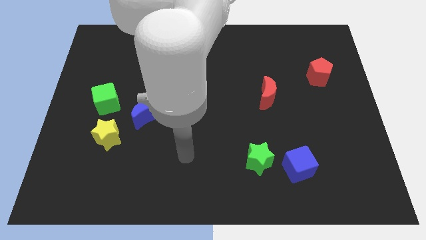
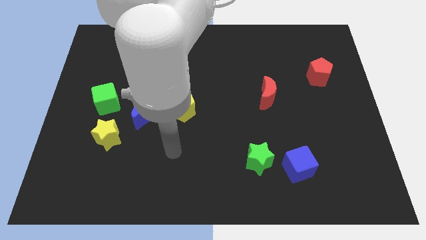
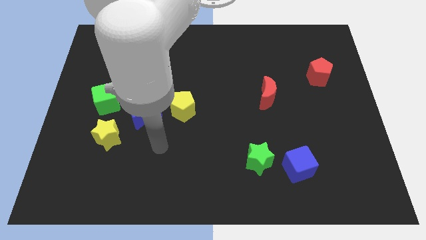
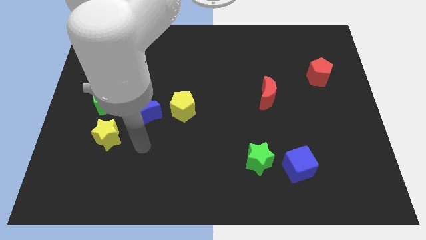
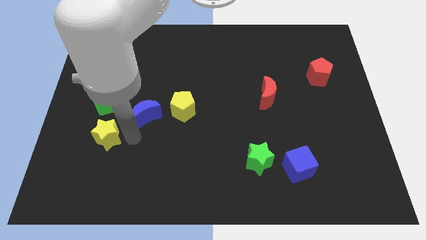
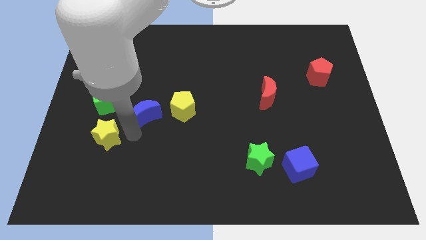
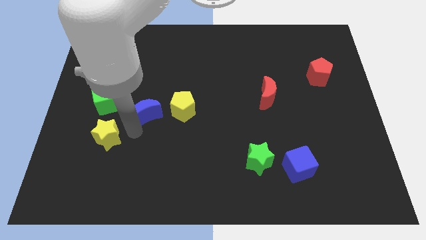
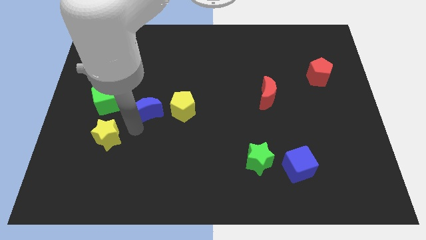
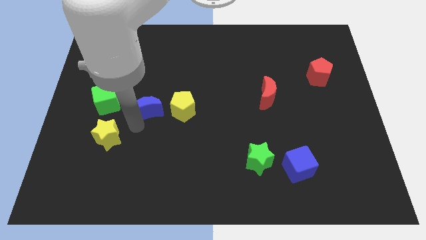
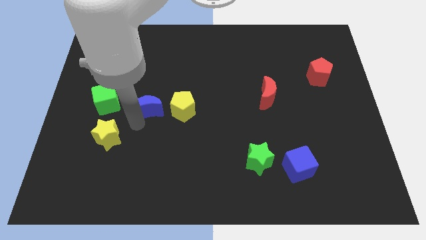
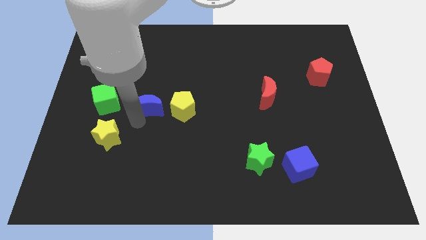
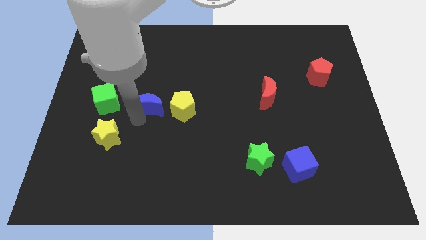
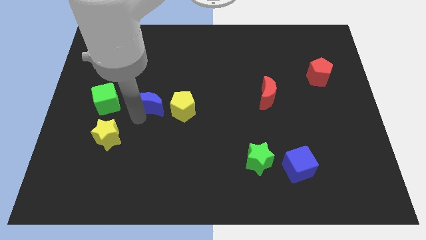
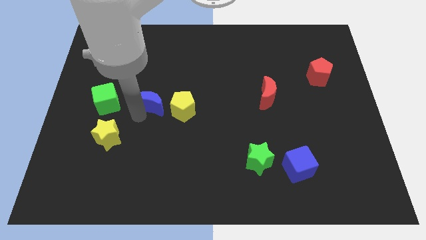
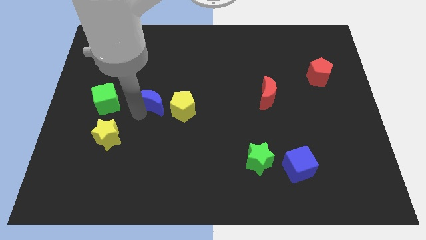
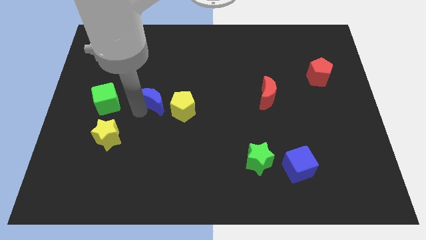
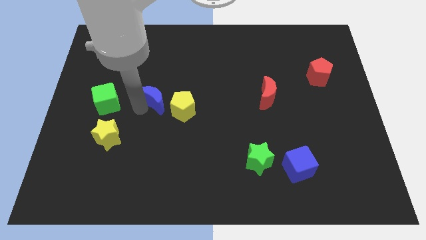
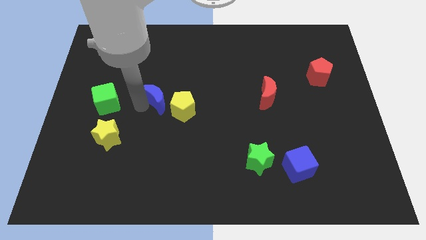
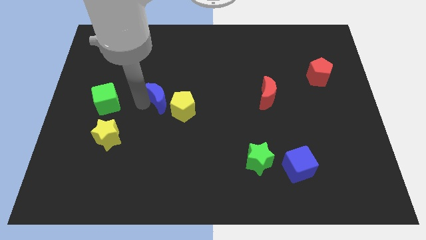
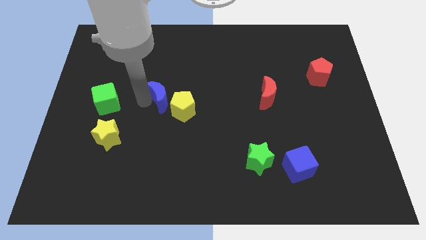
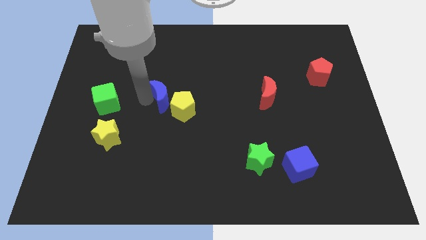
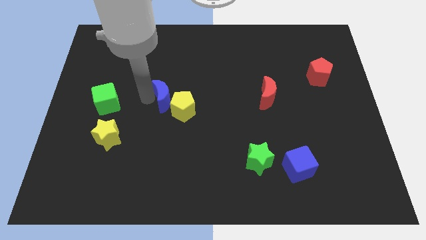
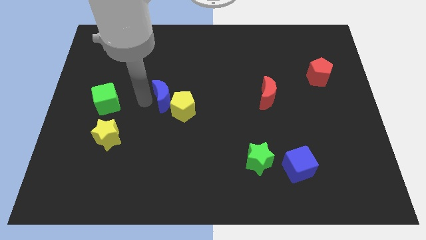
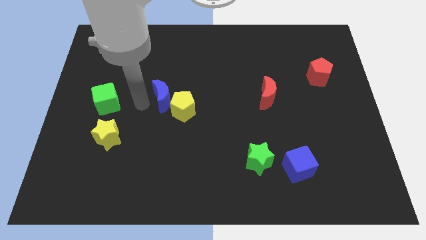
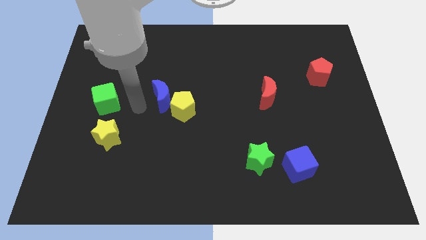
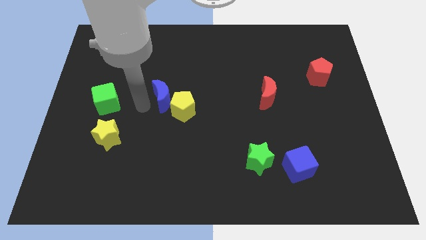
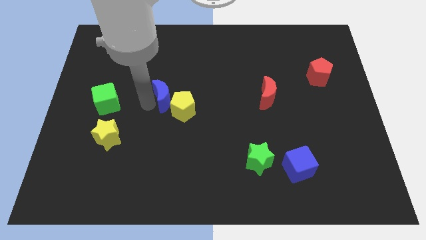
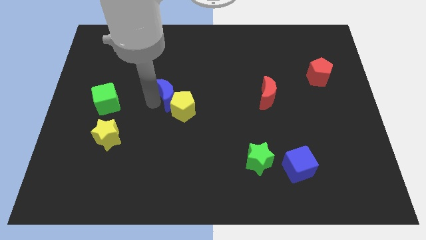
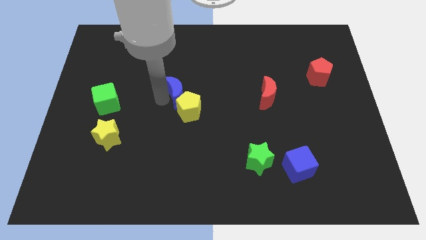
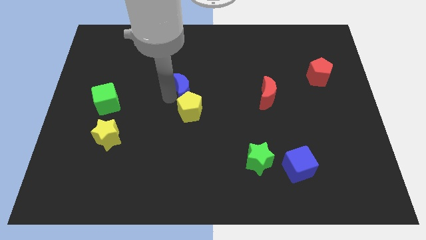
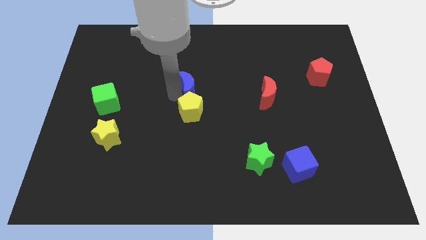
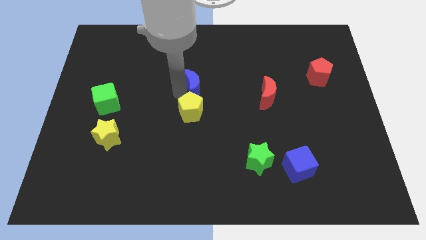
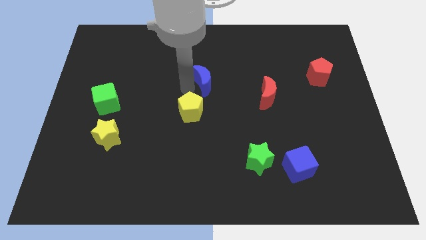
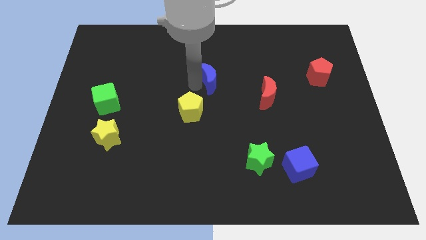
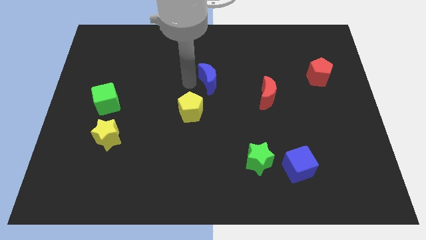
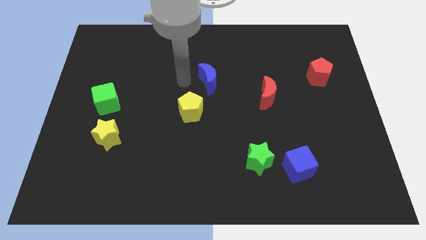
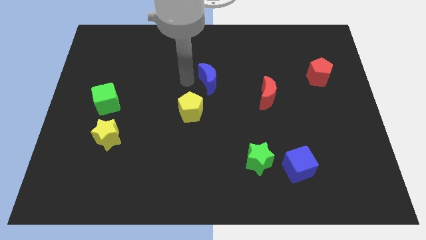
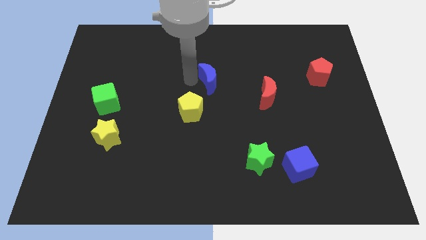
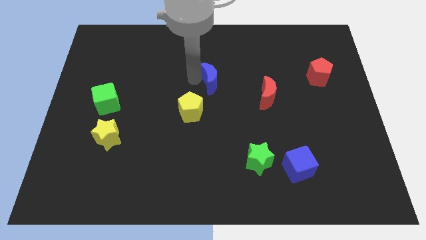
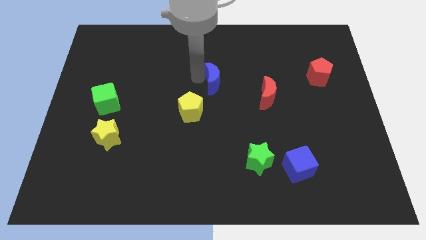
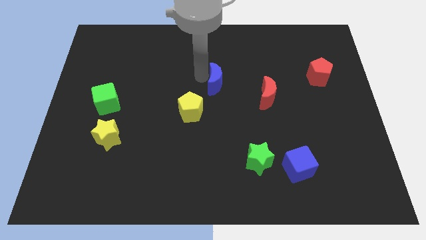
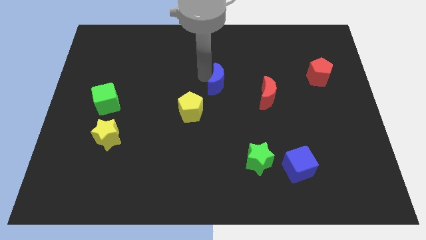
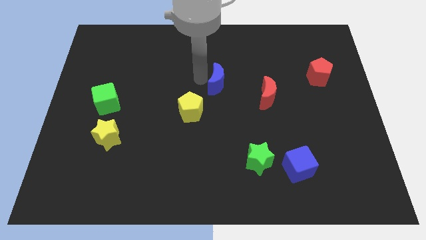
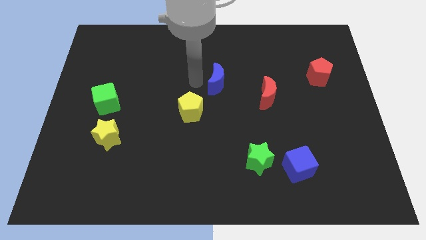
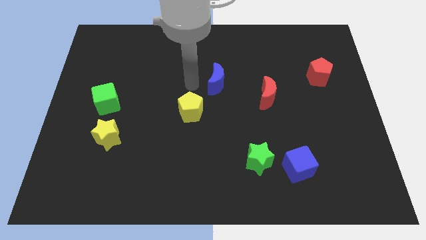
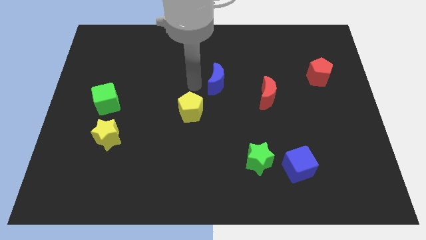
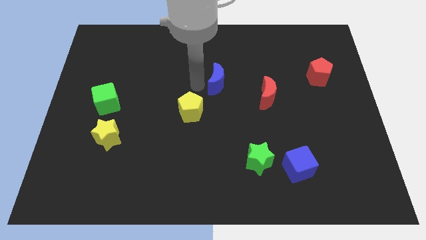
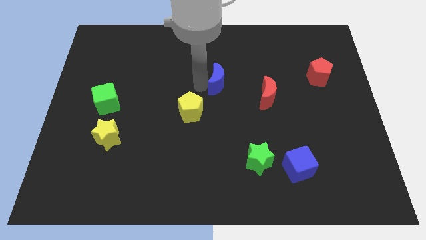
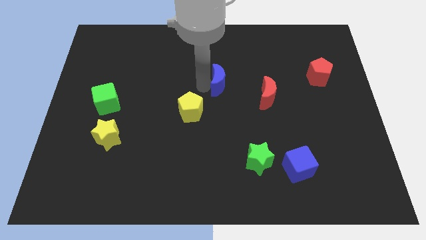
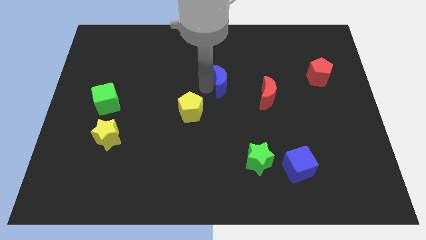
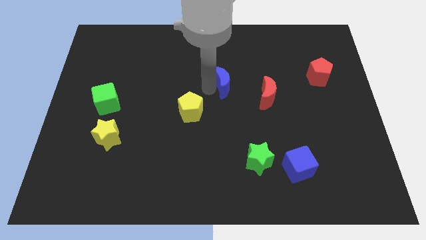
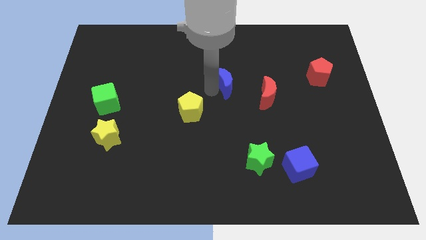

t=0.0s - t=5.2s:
push the blue moon to the top left side of the red moon

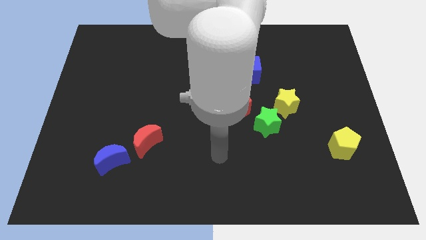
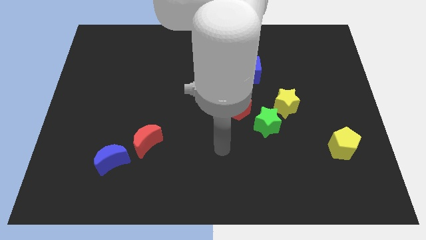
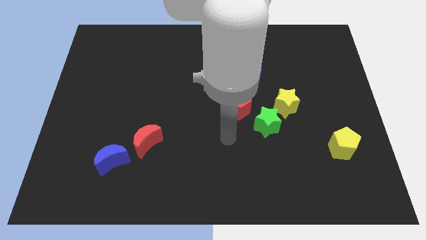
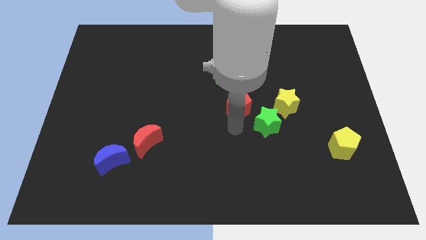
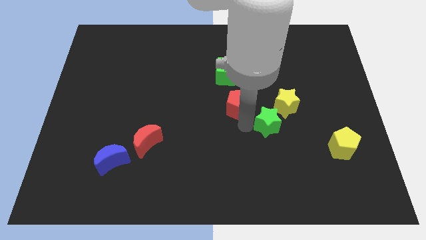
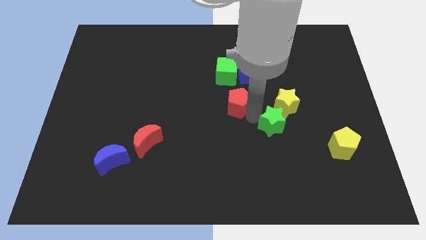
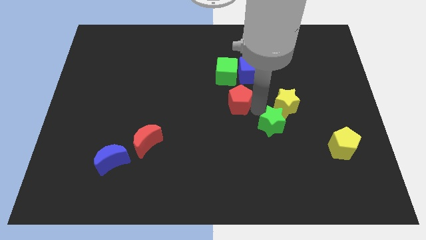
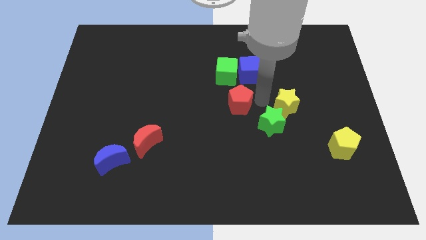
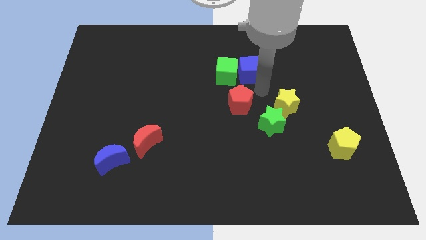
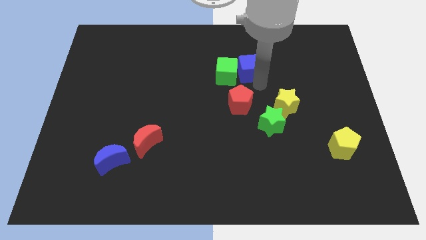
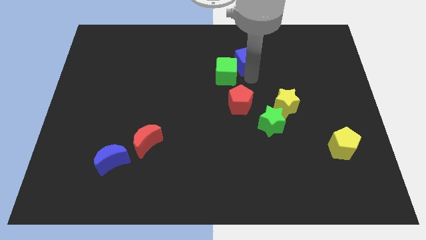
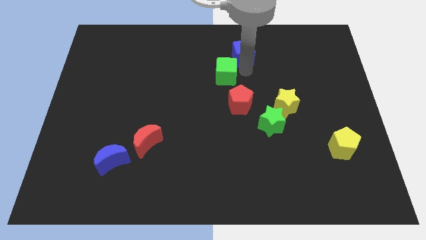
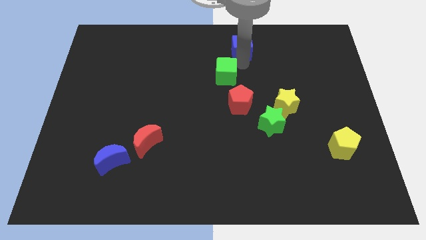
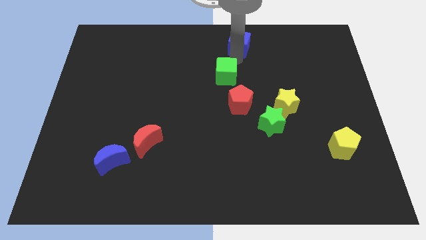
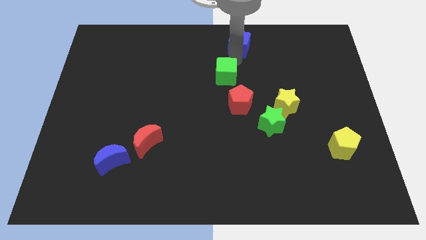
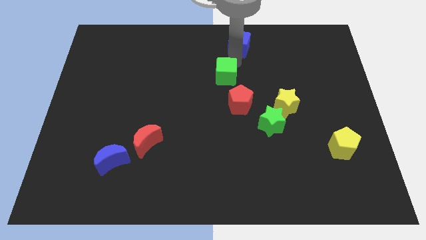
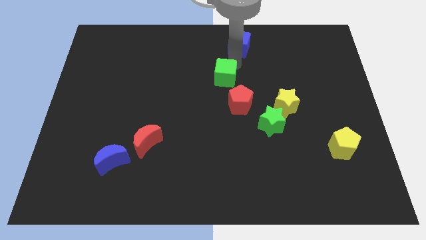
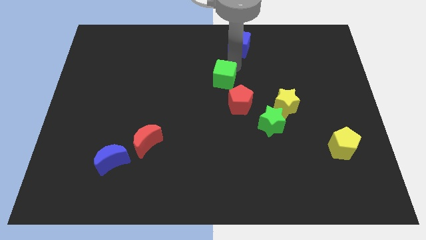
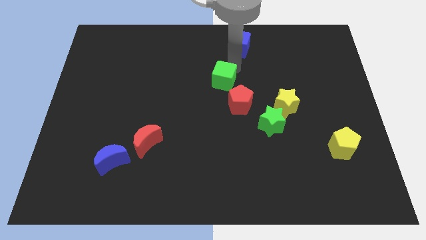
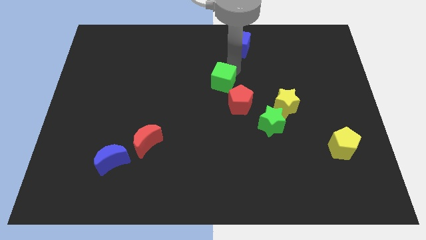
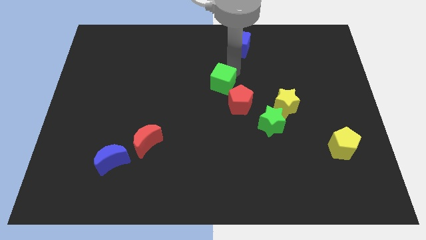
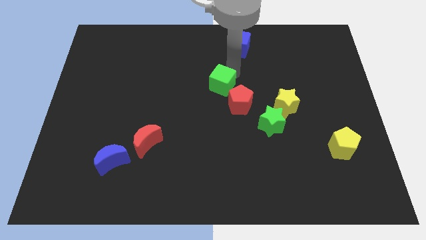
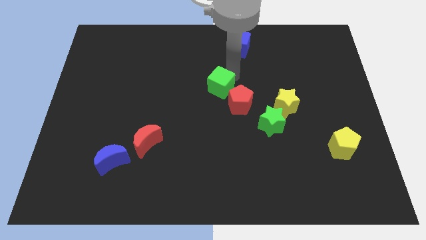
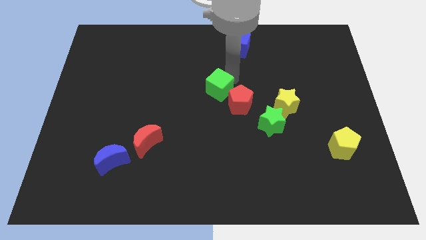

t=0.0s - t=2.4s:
put the green cube to the left of the red pentagon

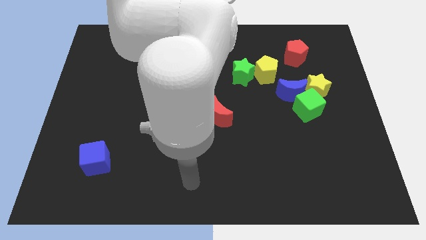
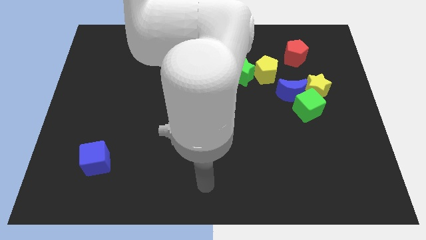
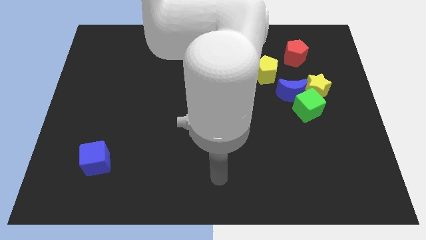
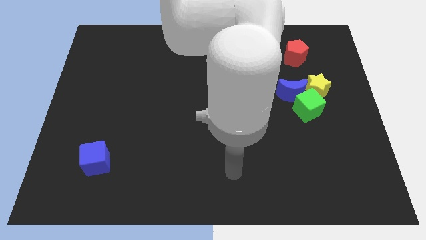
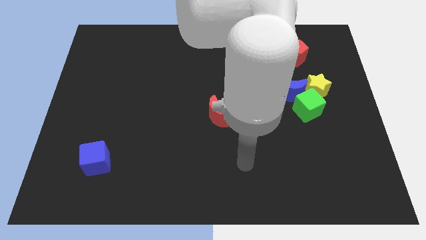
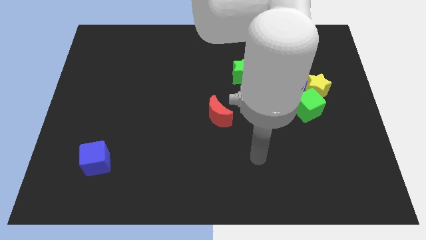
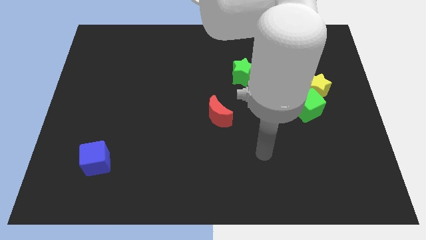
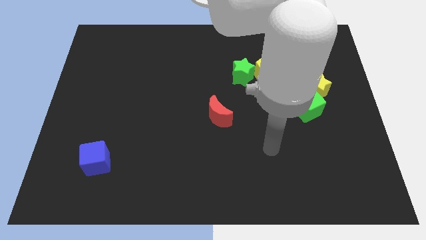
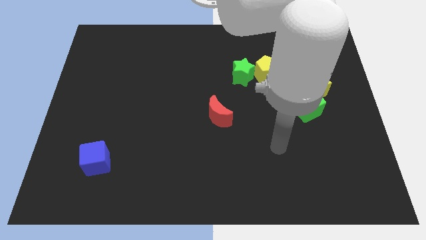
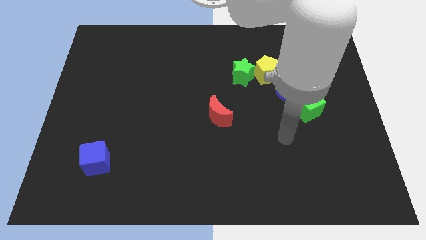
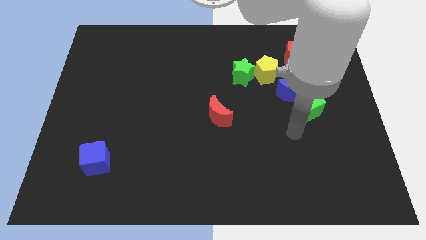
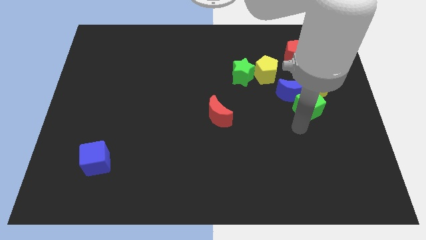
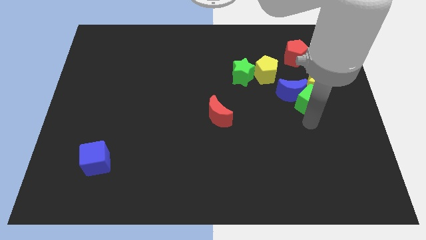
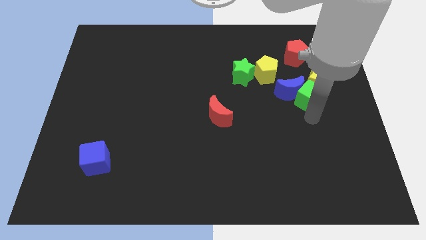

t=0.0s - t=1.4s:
put the yellow star to the bottom right side of the red pentagon
